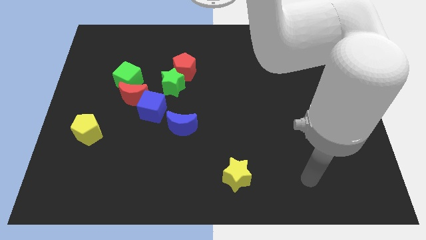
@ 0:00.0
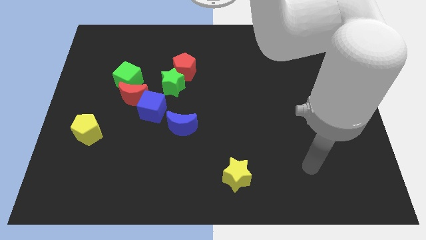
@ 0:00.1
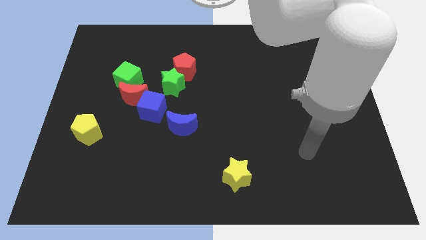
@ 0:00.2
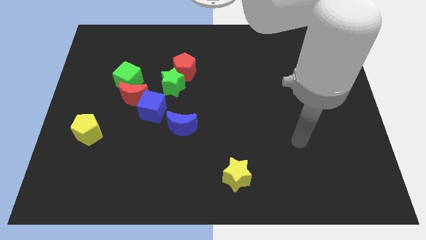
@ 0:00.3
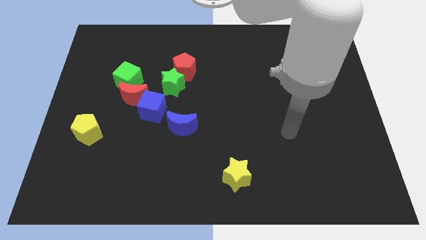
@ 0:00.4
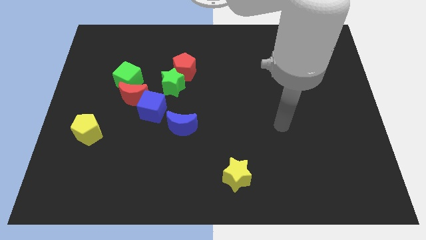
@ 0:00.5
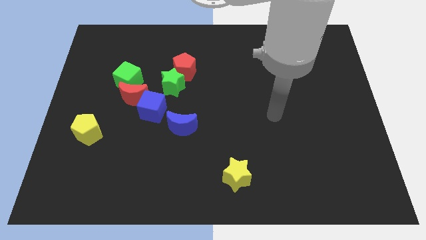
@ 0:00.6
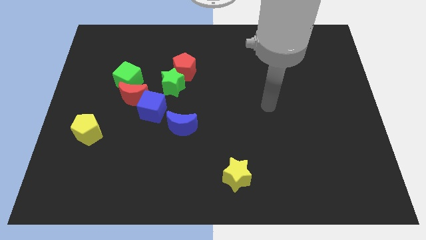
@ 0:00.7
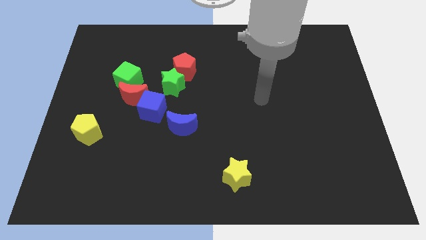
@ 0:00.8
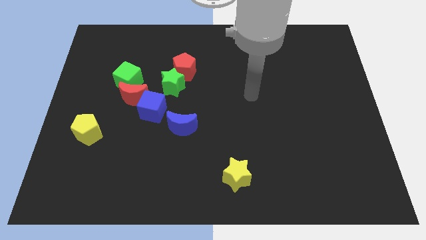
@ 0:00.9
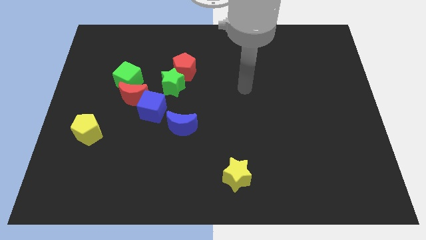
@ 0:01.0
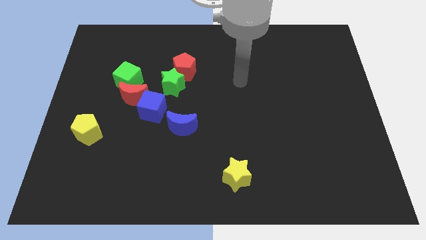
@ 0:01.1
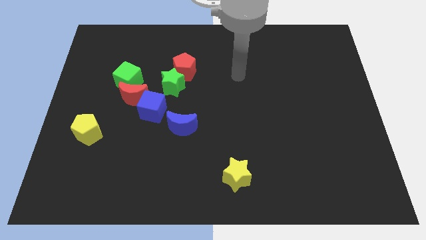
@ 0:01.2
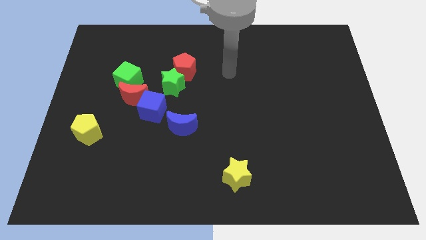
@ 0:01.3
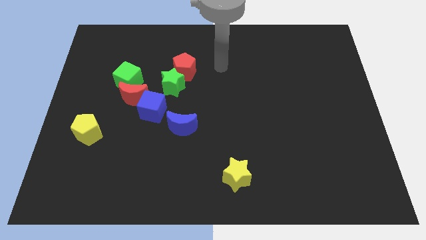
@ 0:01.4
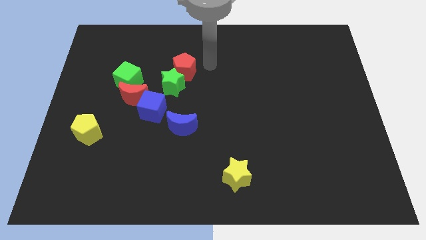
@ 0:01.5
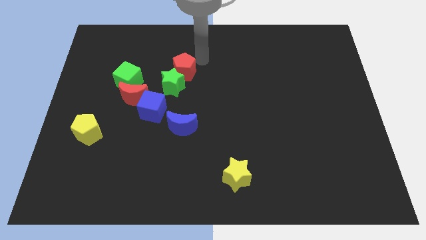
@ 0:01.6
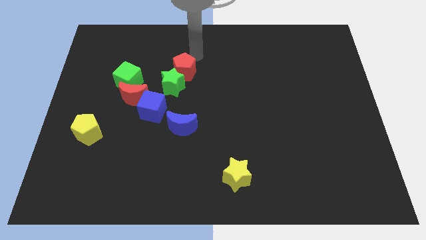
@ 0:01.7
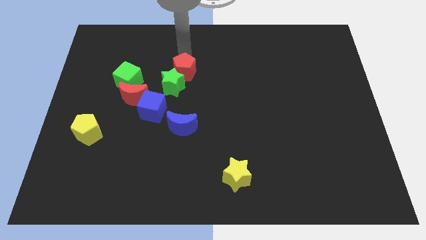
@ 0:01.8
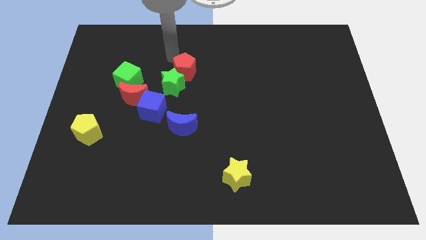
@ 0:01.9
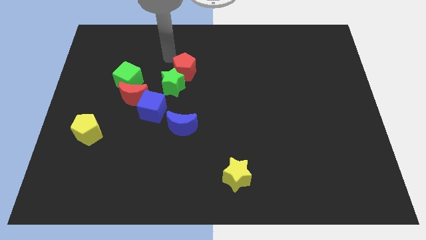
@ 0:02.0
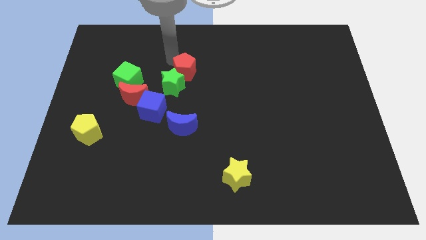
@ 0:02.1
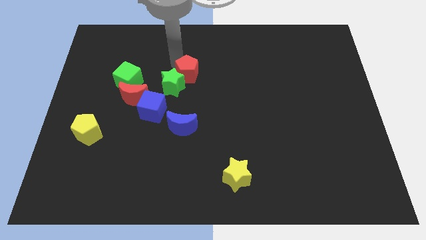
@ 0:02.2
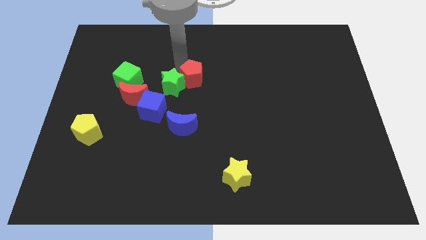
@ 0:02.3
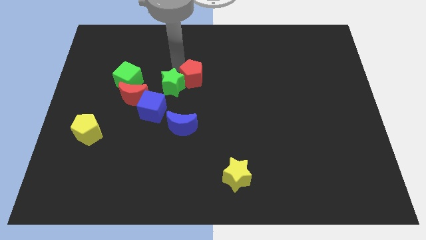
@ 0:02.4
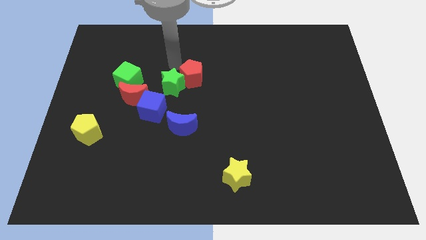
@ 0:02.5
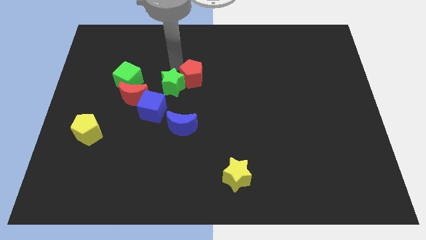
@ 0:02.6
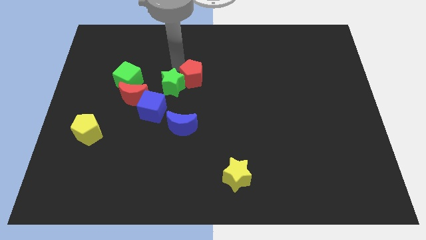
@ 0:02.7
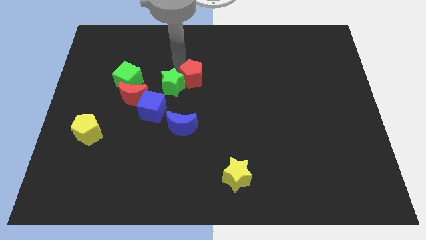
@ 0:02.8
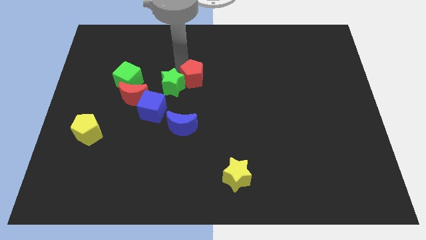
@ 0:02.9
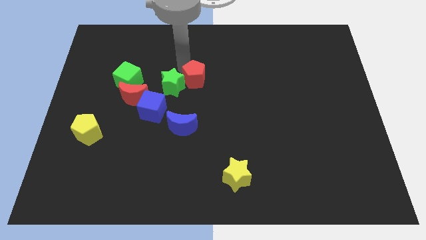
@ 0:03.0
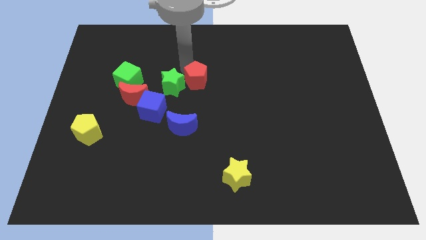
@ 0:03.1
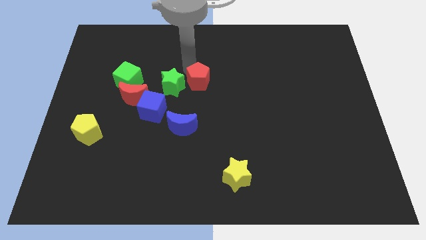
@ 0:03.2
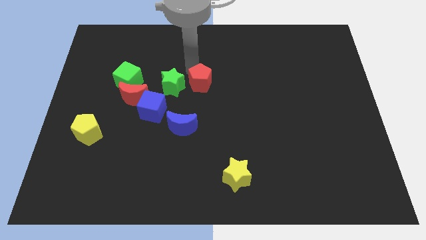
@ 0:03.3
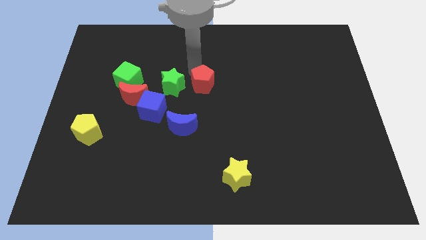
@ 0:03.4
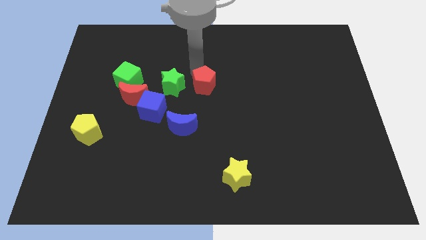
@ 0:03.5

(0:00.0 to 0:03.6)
push the red pentagon diagonally downwards and to the right a little bit

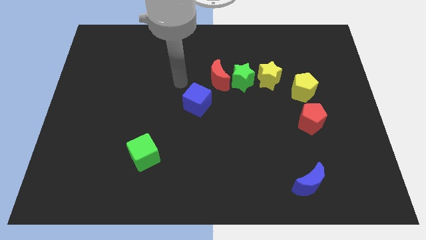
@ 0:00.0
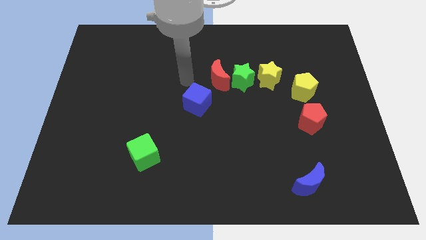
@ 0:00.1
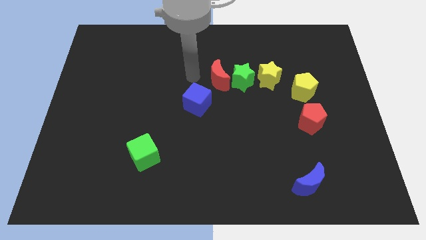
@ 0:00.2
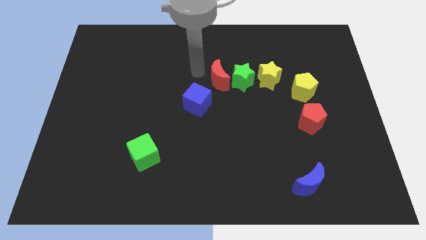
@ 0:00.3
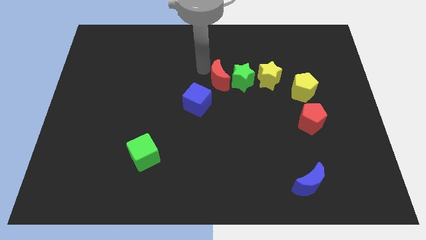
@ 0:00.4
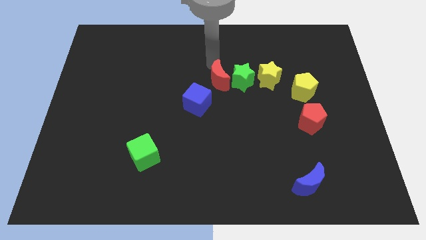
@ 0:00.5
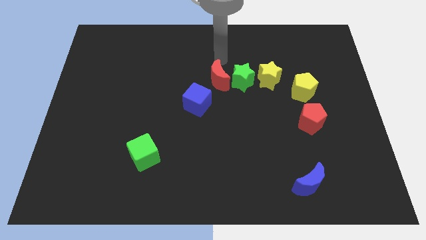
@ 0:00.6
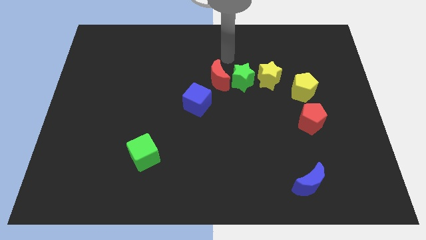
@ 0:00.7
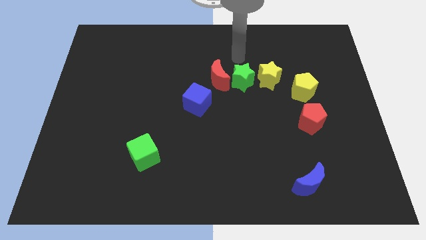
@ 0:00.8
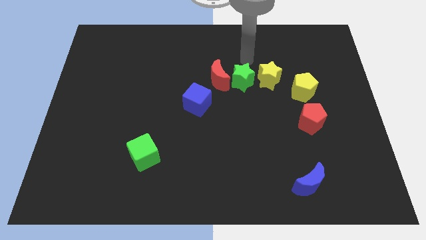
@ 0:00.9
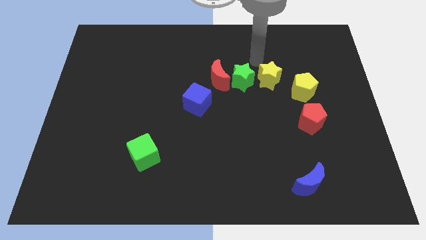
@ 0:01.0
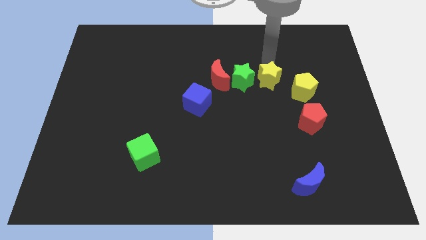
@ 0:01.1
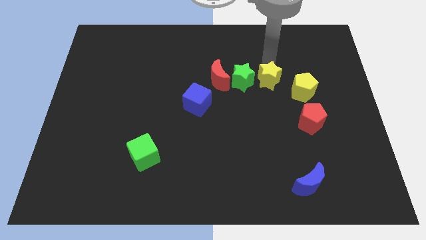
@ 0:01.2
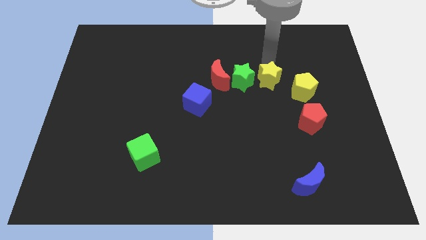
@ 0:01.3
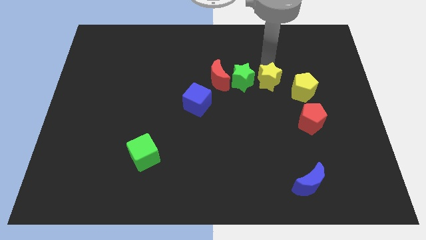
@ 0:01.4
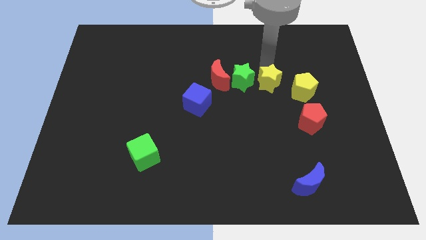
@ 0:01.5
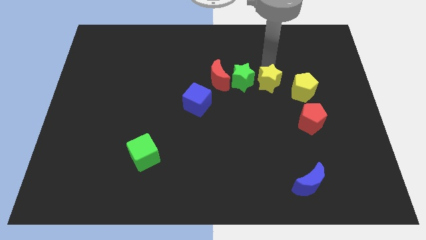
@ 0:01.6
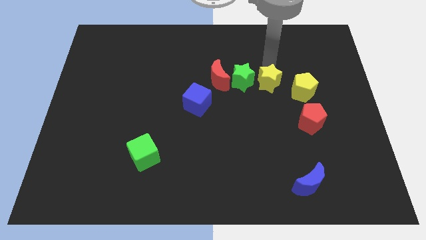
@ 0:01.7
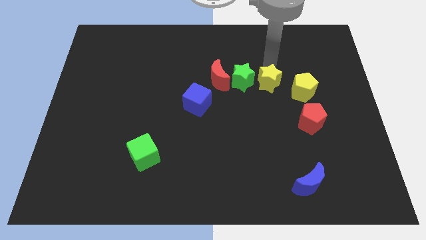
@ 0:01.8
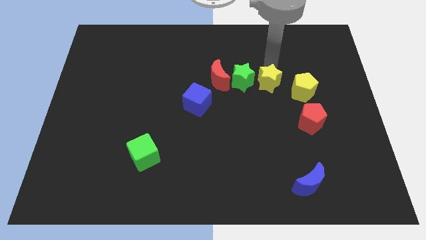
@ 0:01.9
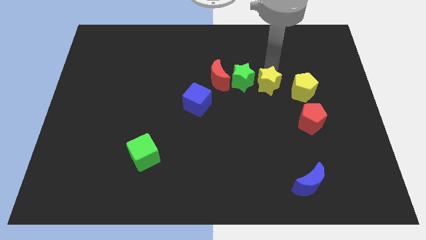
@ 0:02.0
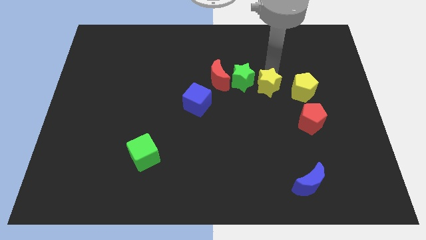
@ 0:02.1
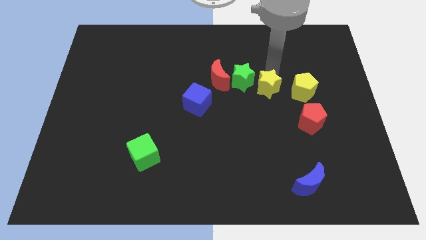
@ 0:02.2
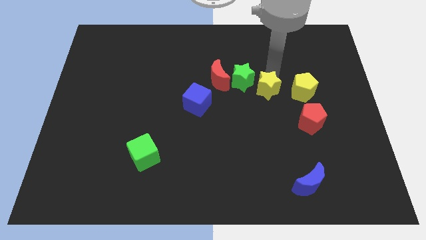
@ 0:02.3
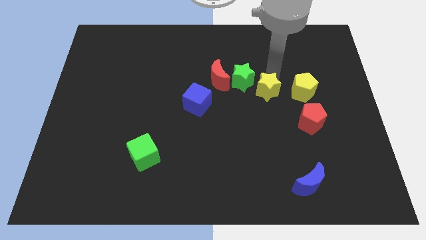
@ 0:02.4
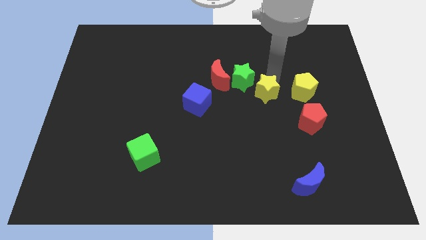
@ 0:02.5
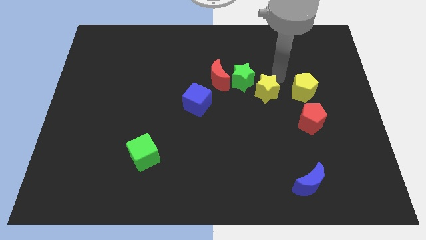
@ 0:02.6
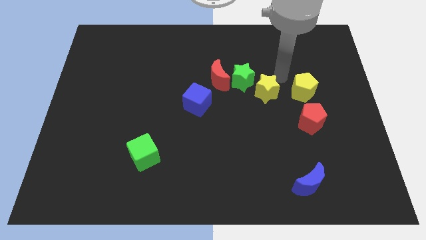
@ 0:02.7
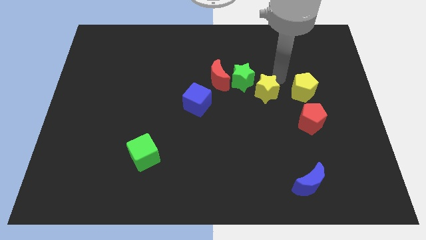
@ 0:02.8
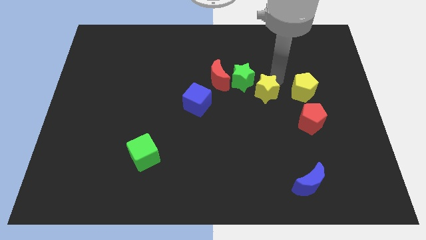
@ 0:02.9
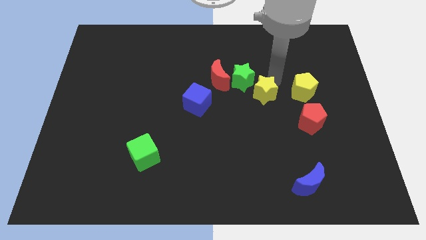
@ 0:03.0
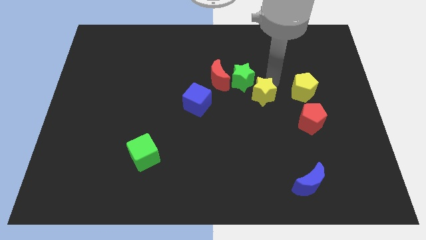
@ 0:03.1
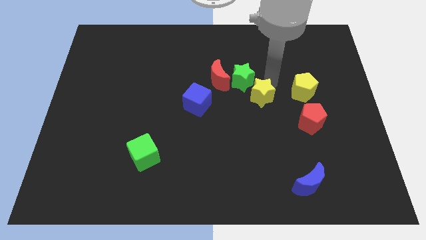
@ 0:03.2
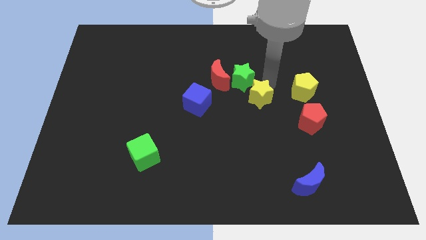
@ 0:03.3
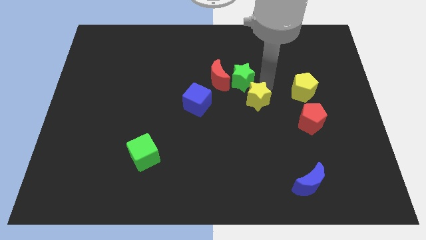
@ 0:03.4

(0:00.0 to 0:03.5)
move the yellow star down and then left somewhat

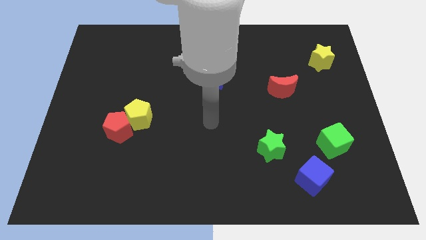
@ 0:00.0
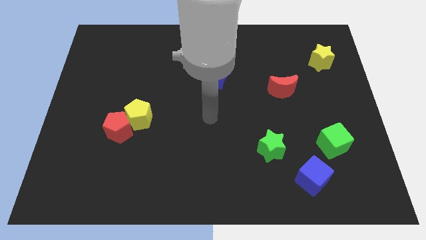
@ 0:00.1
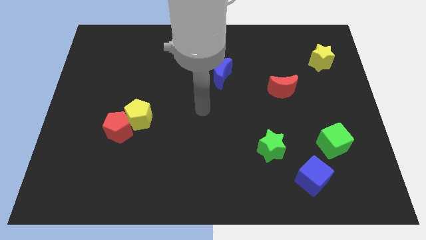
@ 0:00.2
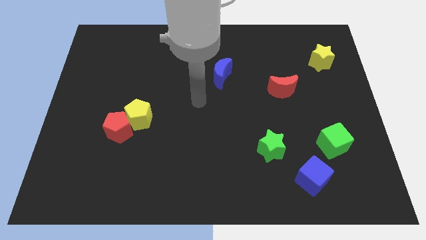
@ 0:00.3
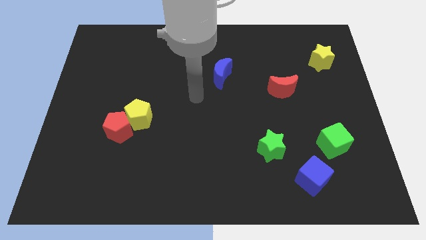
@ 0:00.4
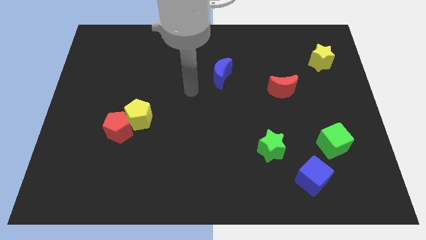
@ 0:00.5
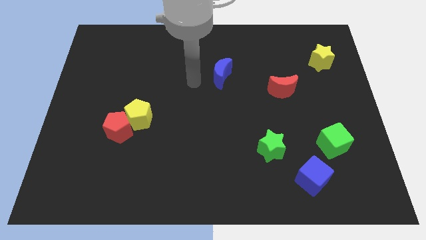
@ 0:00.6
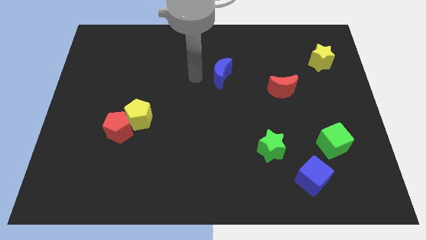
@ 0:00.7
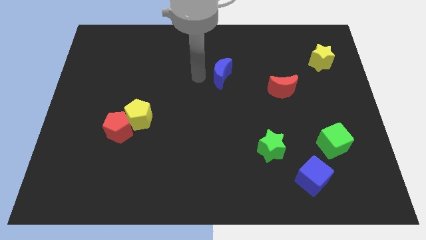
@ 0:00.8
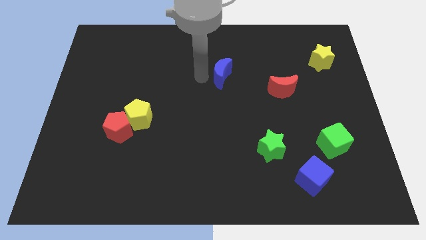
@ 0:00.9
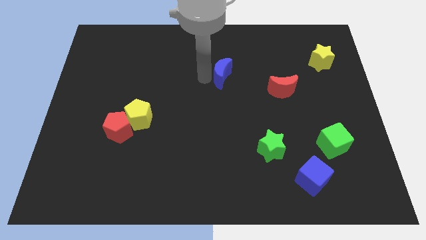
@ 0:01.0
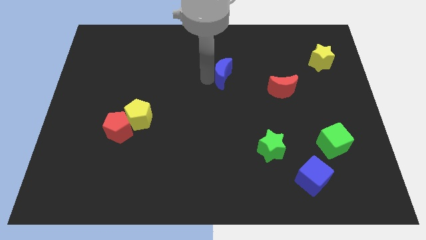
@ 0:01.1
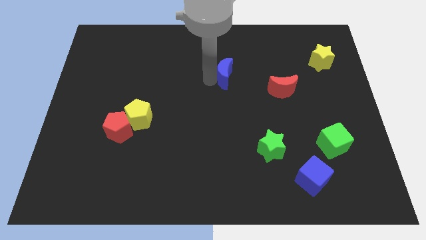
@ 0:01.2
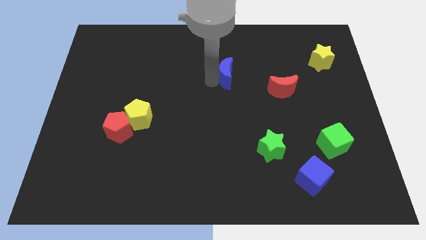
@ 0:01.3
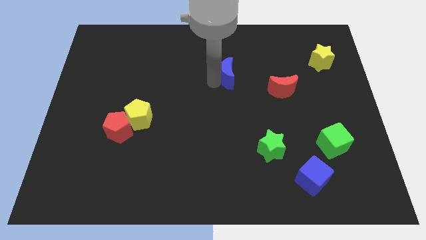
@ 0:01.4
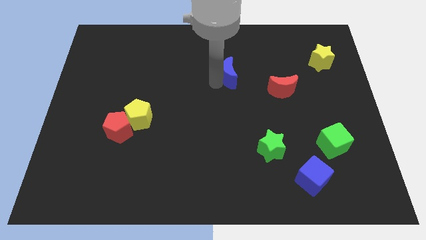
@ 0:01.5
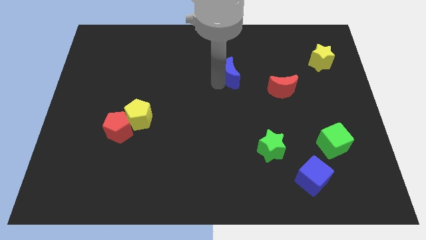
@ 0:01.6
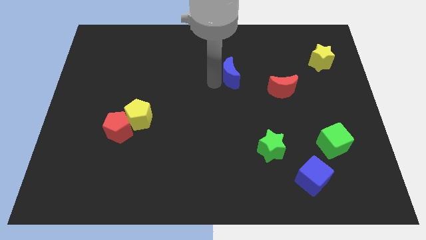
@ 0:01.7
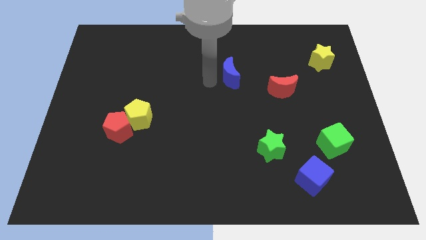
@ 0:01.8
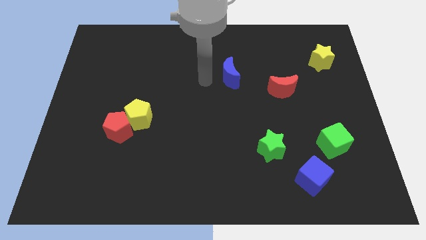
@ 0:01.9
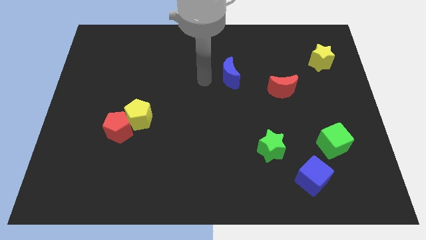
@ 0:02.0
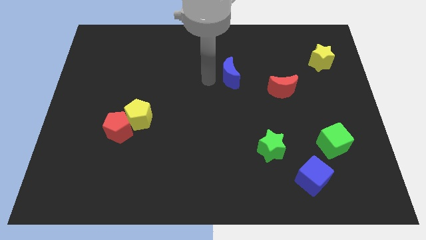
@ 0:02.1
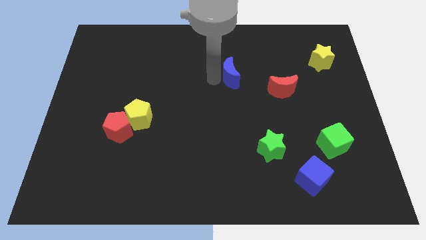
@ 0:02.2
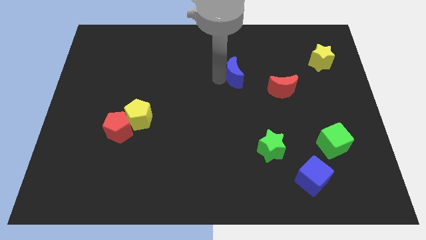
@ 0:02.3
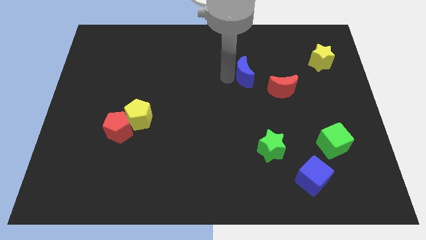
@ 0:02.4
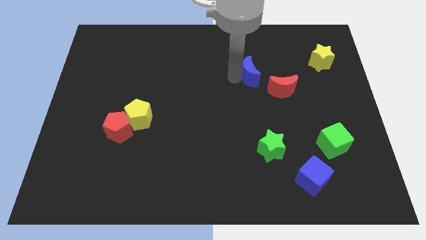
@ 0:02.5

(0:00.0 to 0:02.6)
push the blue moon to the right a little
